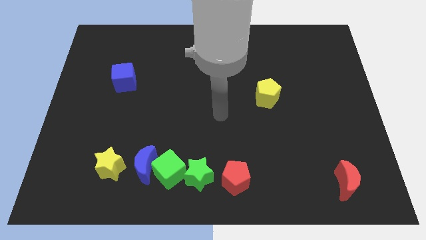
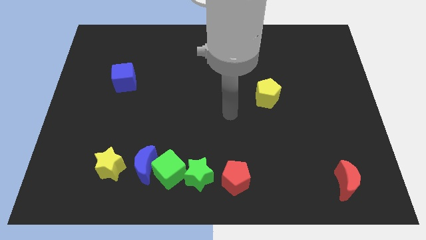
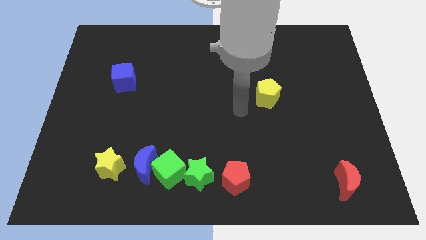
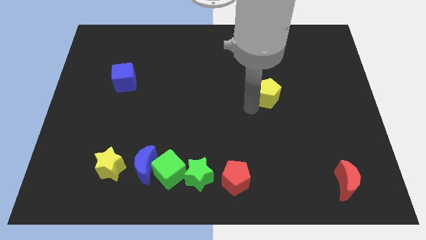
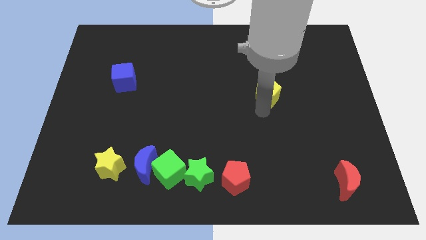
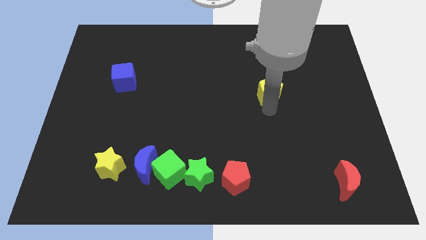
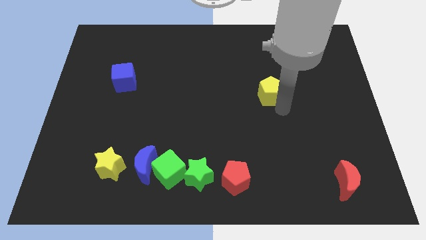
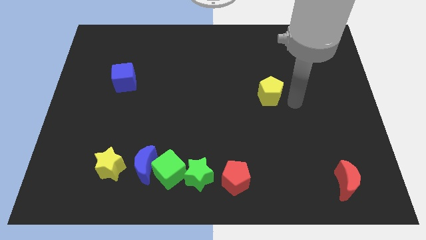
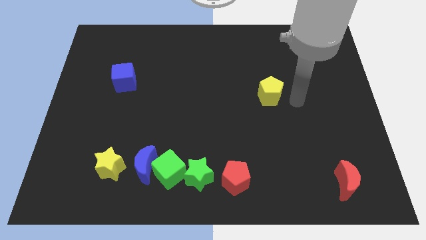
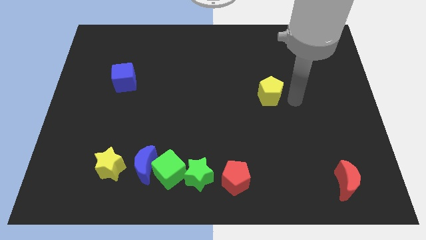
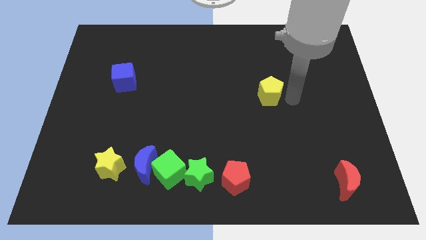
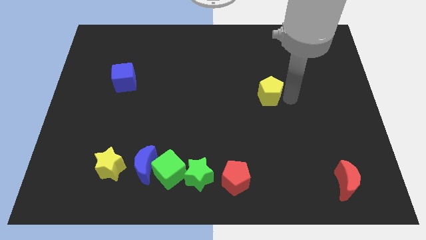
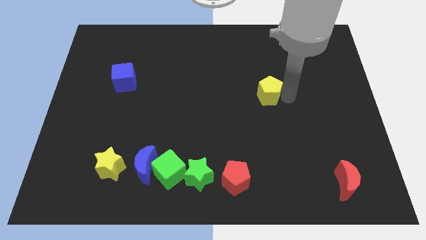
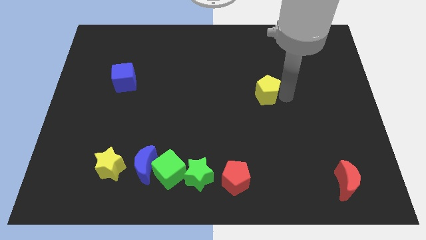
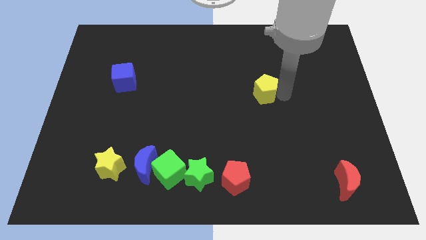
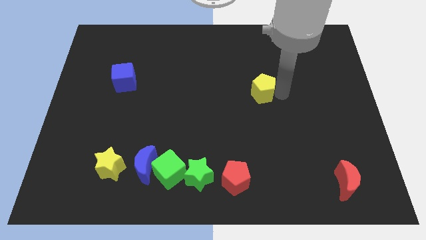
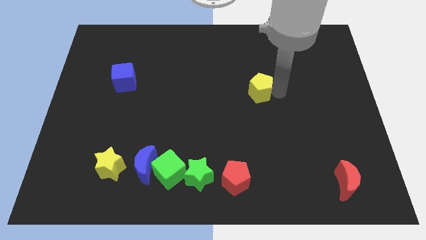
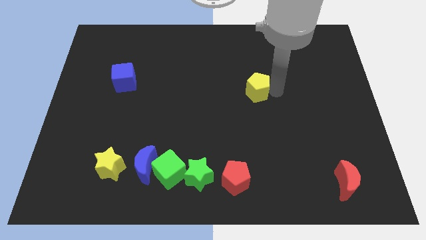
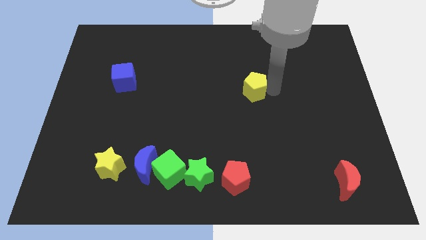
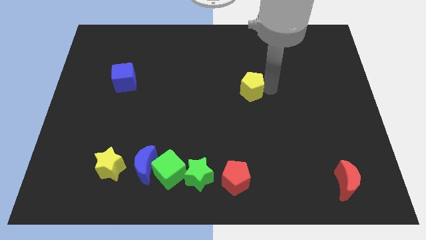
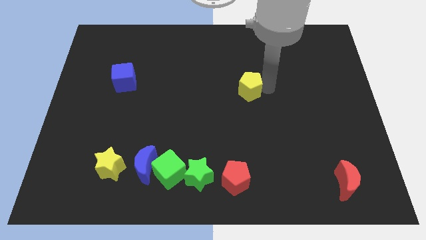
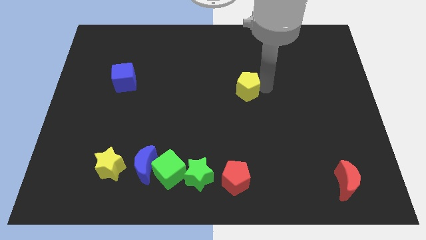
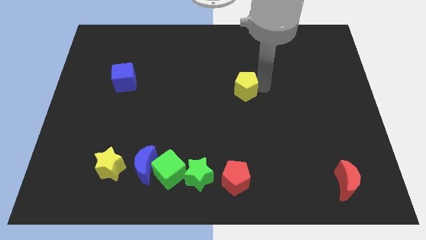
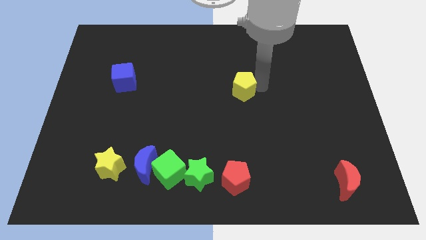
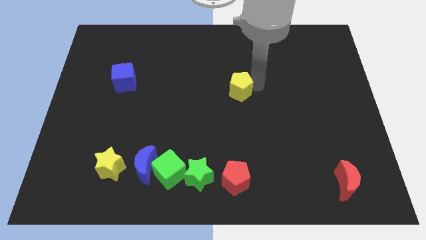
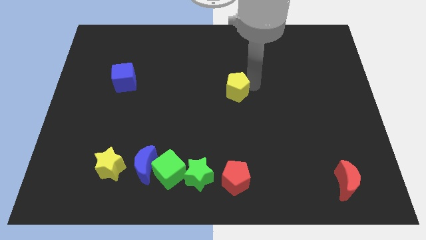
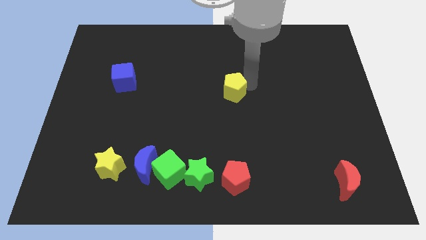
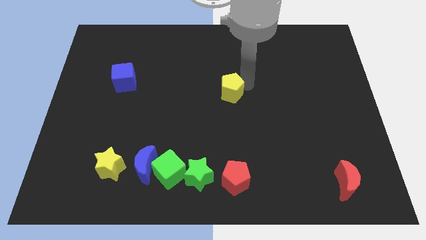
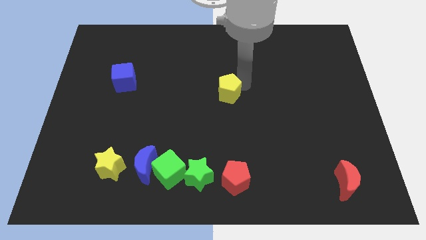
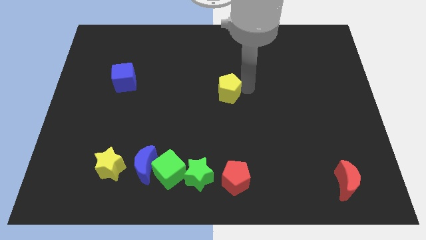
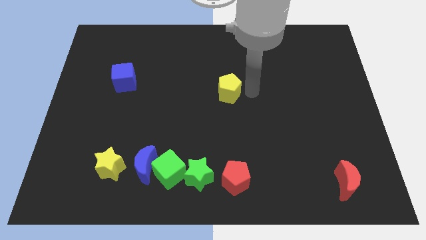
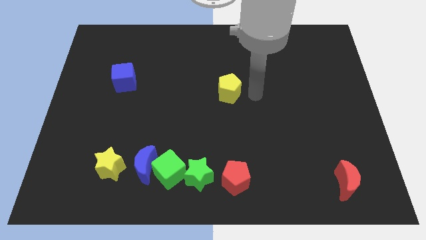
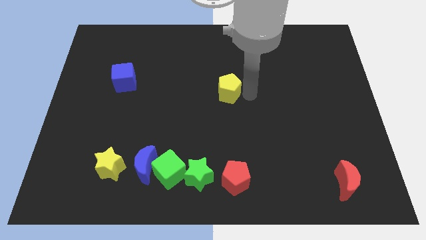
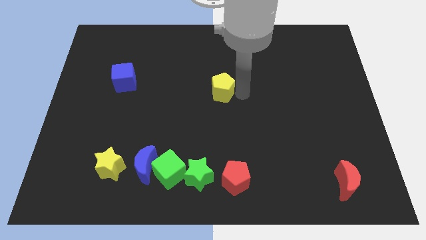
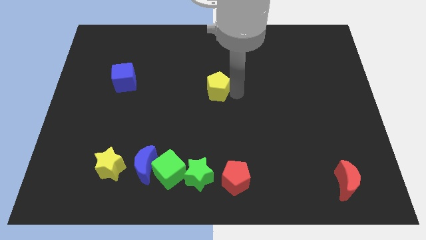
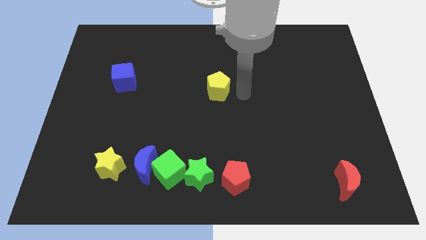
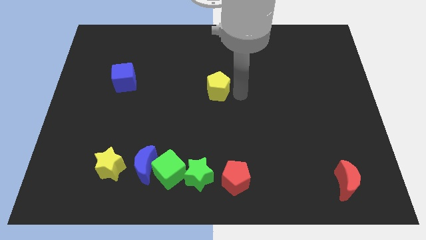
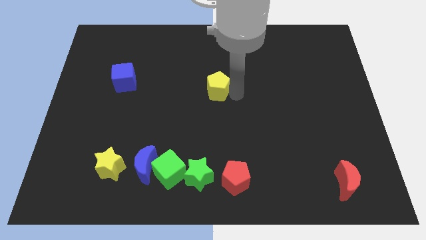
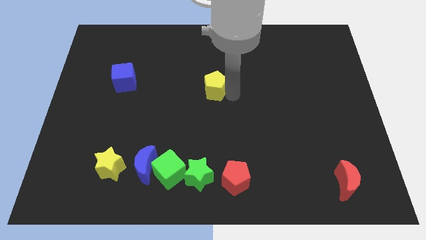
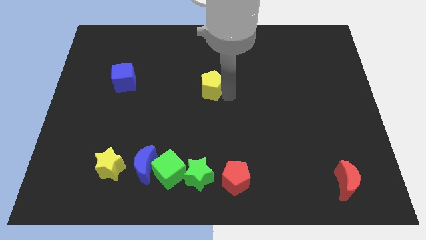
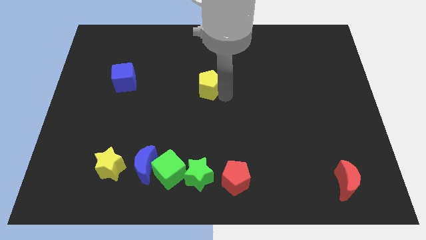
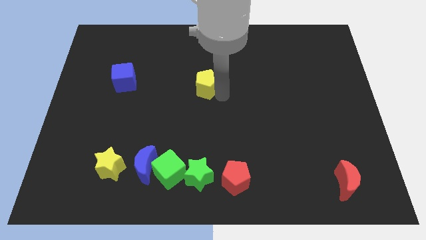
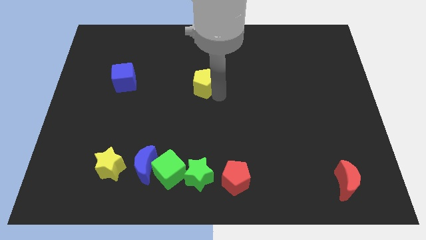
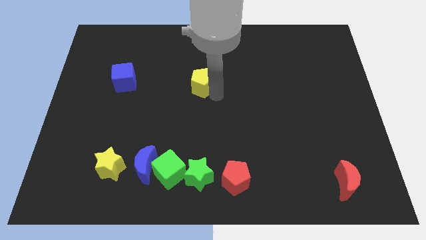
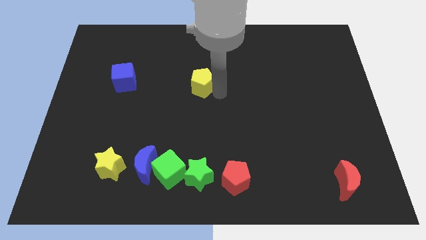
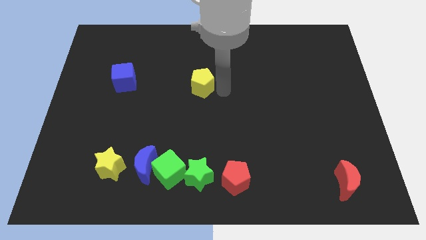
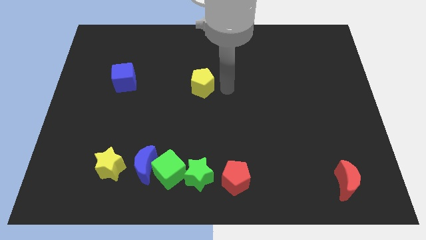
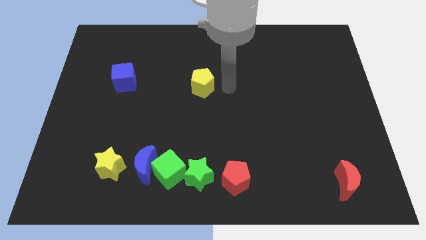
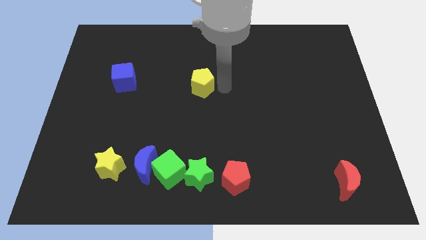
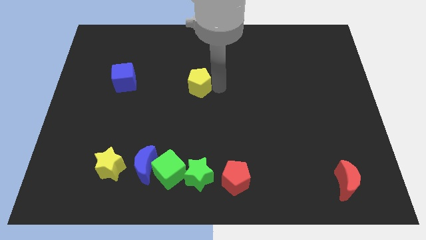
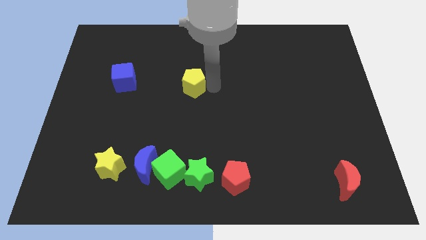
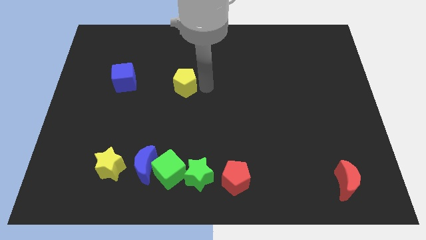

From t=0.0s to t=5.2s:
push the yellow pentagon to the right of the blue cube

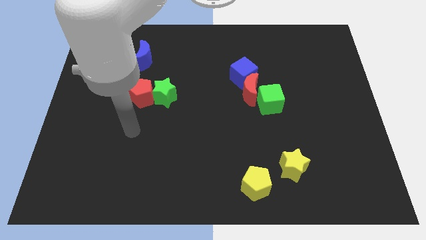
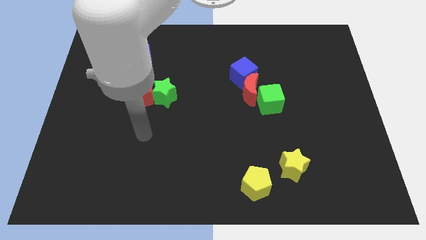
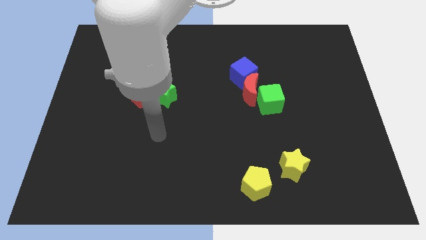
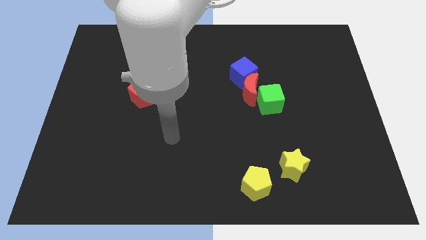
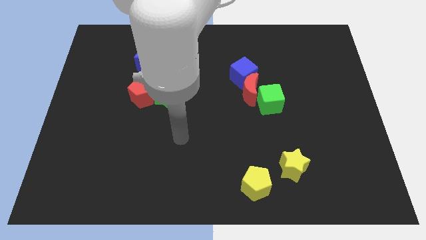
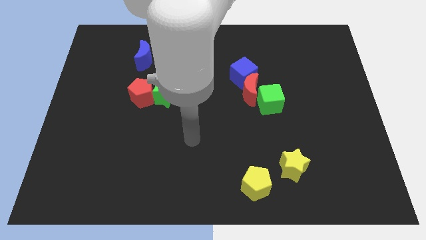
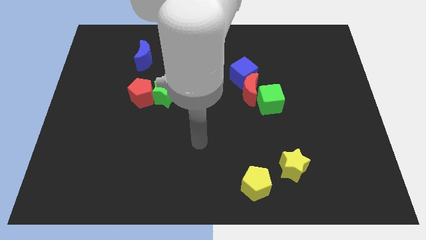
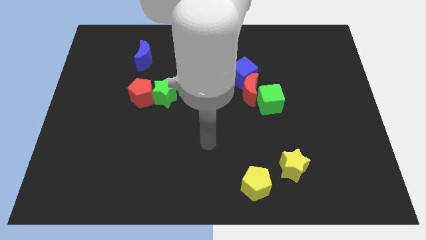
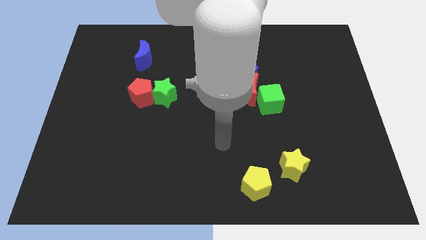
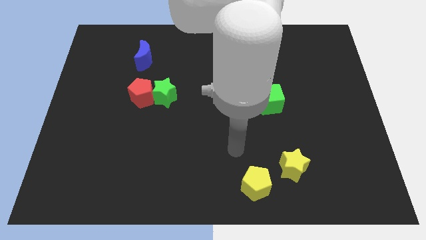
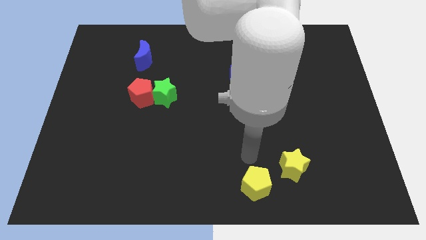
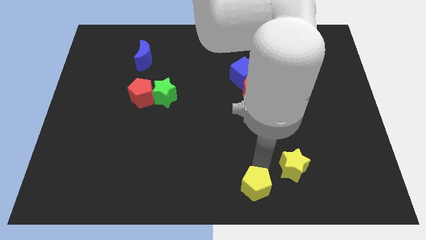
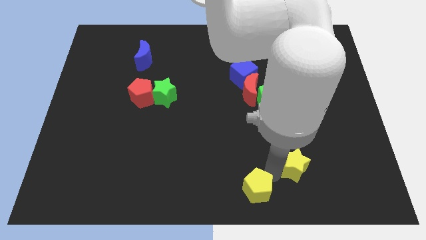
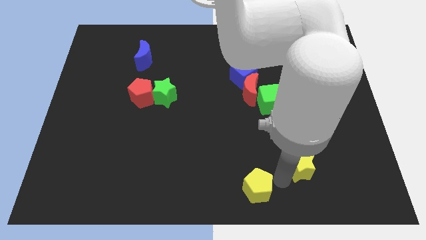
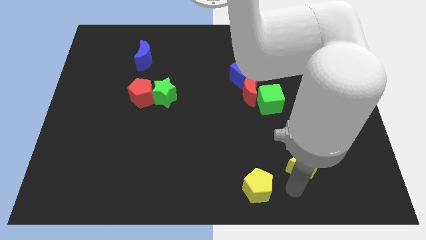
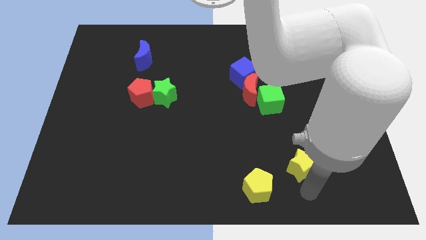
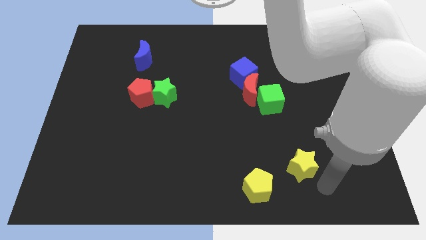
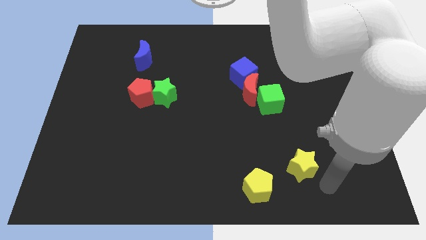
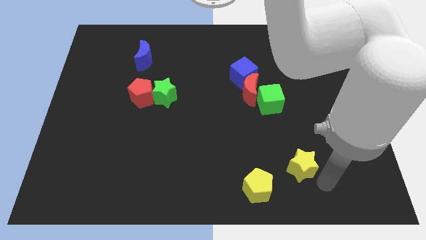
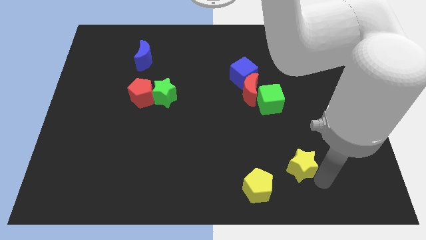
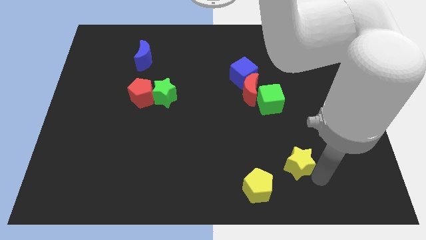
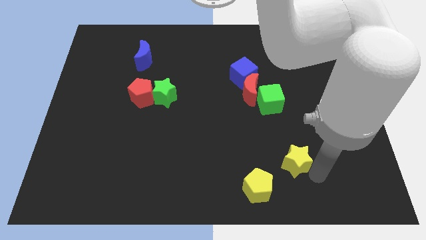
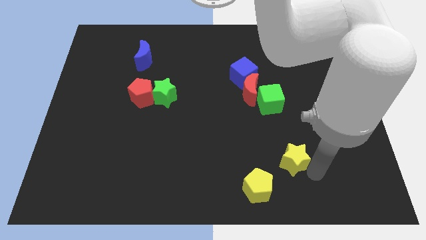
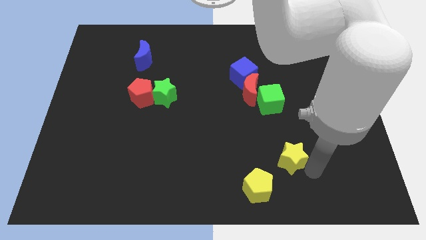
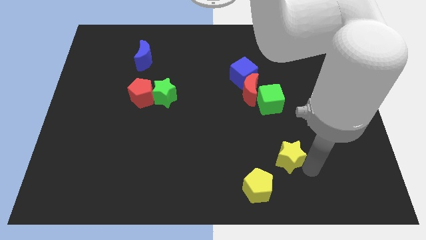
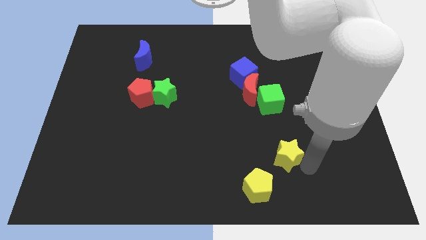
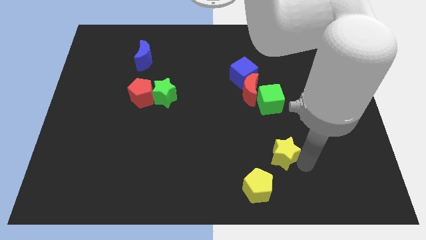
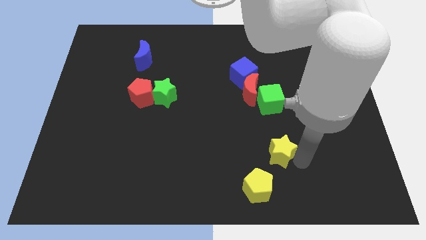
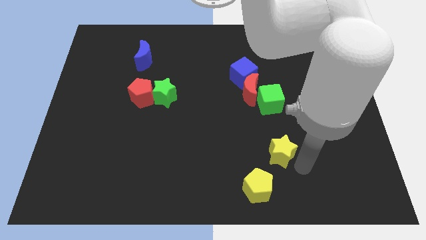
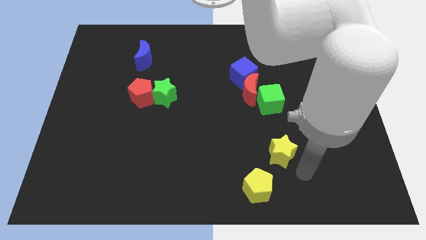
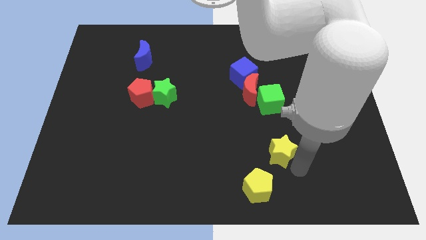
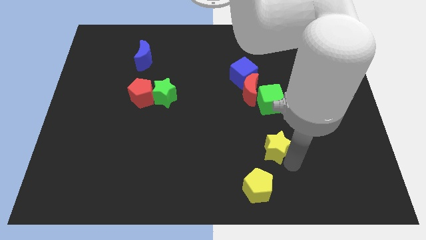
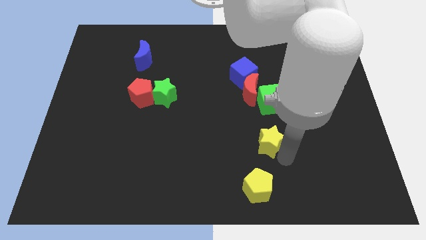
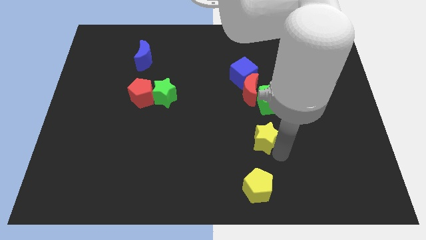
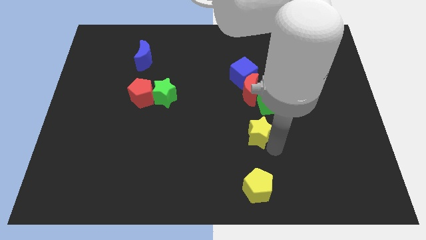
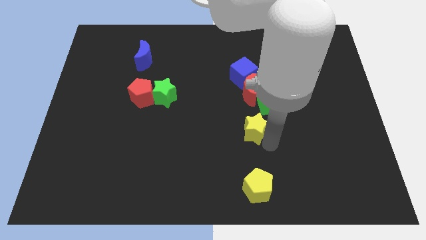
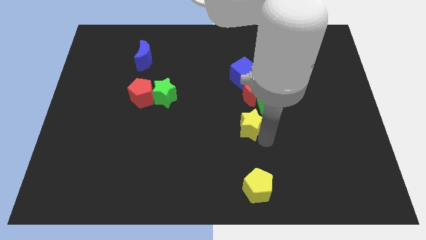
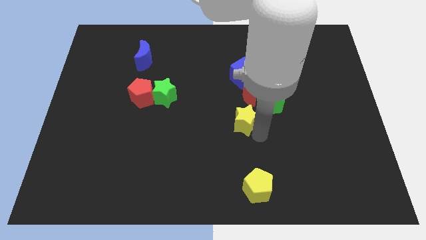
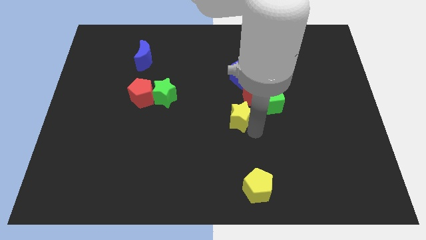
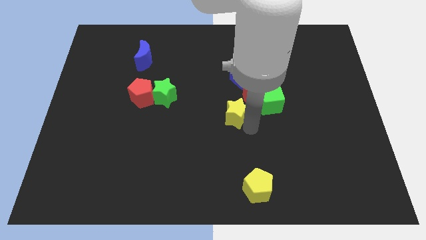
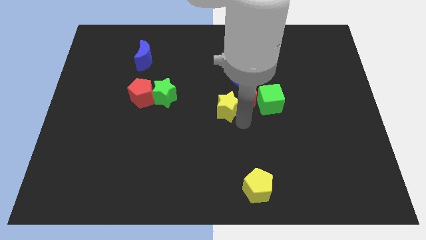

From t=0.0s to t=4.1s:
slide the yellow star left of the red moon
